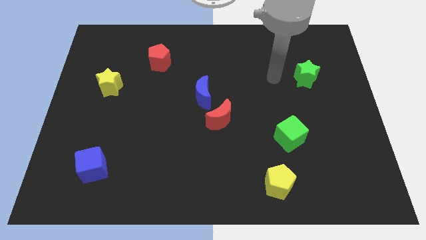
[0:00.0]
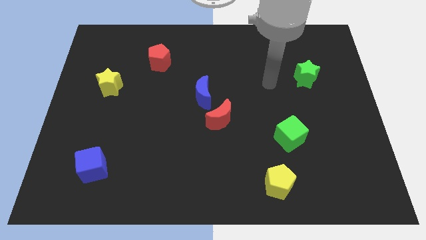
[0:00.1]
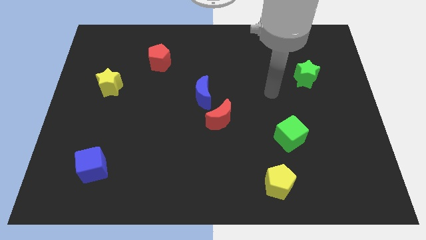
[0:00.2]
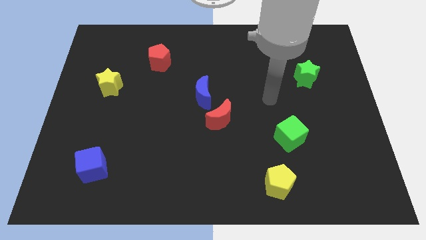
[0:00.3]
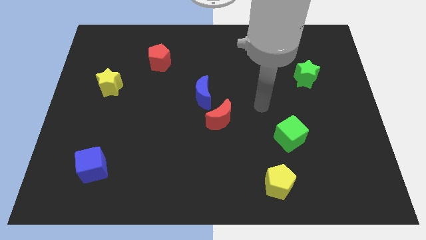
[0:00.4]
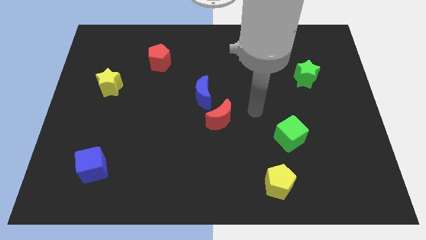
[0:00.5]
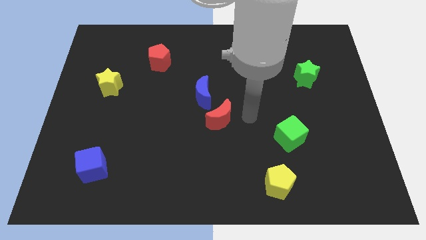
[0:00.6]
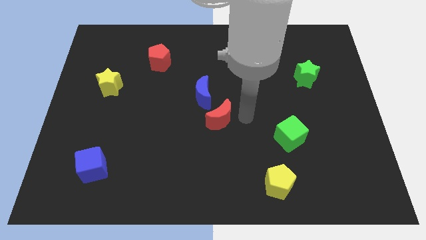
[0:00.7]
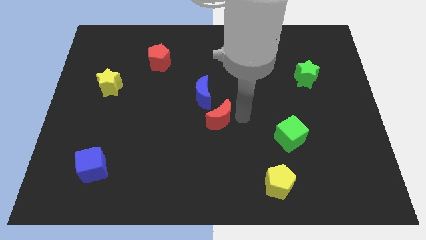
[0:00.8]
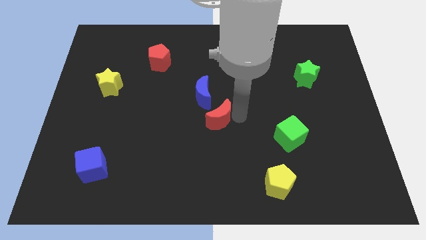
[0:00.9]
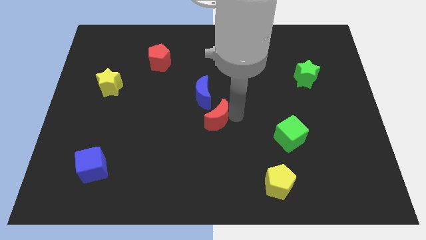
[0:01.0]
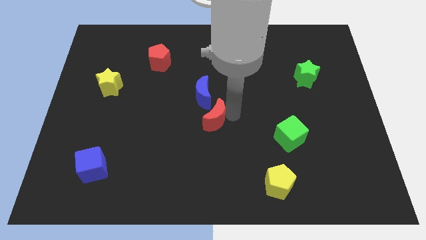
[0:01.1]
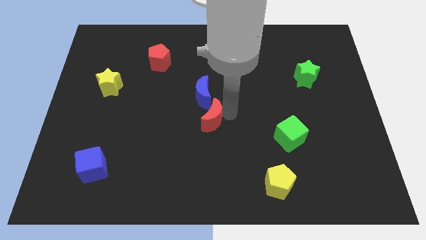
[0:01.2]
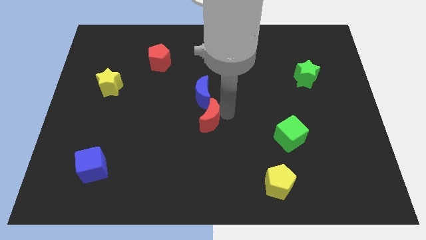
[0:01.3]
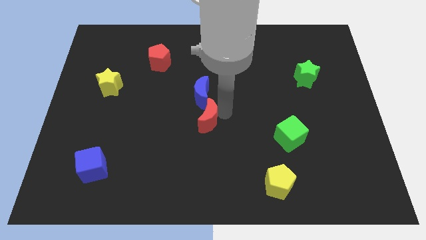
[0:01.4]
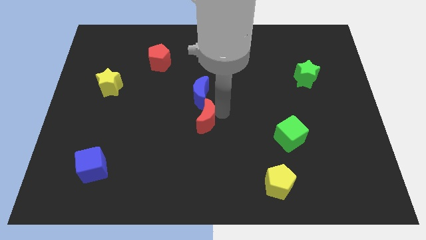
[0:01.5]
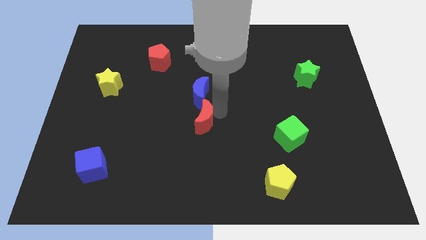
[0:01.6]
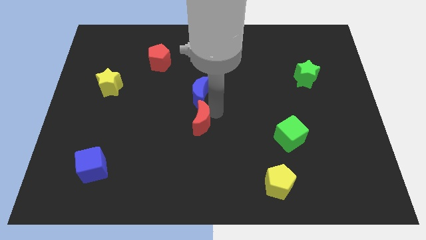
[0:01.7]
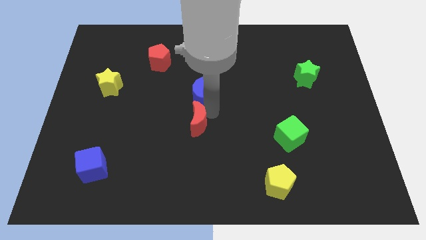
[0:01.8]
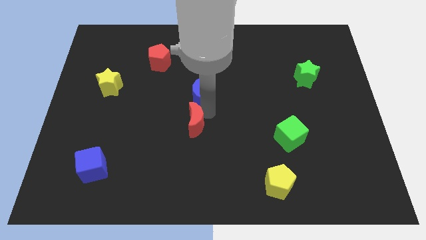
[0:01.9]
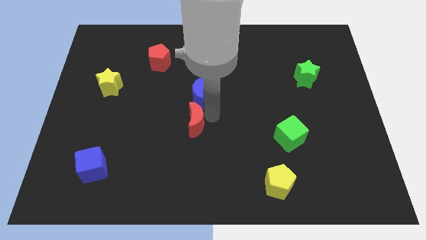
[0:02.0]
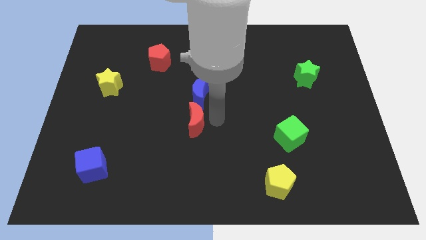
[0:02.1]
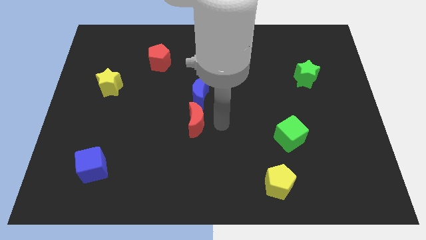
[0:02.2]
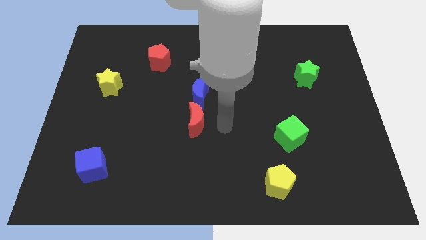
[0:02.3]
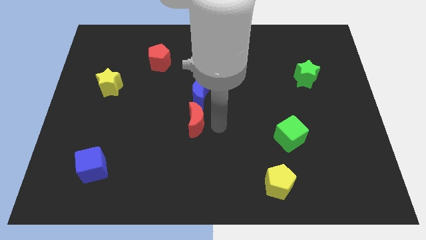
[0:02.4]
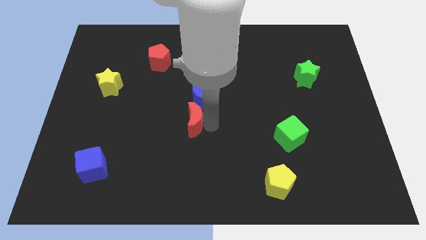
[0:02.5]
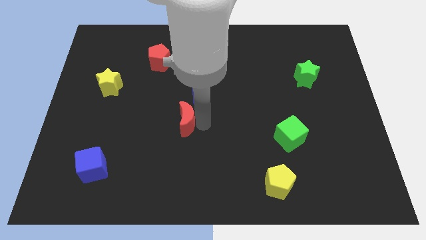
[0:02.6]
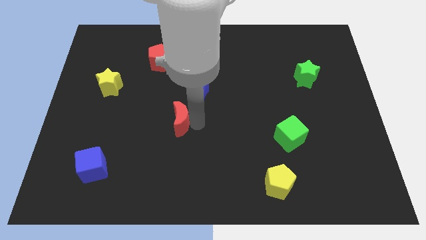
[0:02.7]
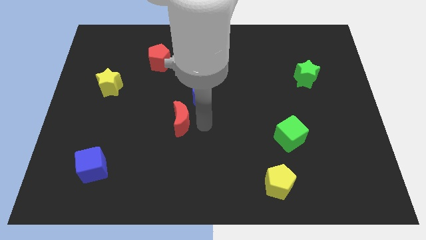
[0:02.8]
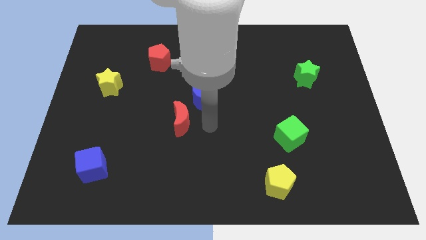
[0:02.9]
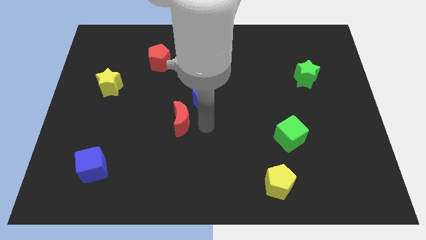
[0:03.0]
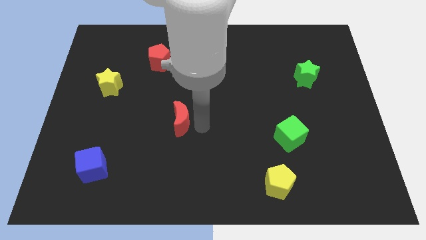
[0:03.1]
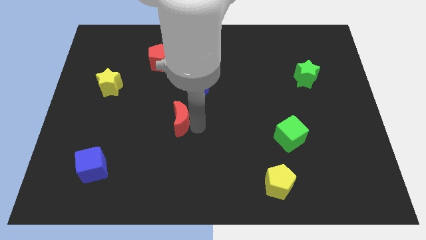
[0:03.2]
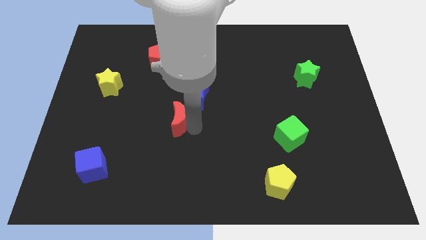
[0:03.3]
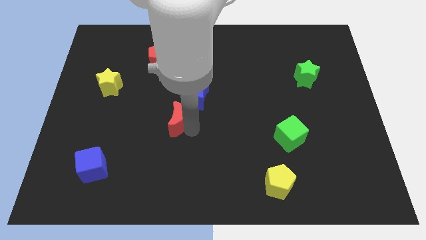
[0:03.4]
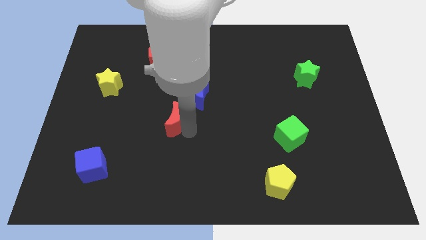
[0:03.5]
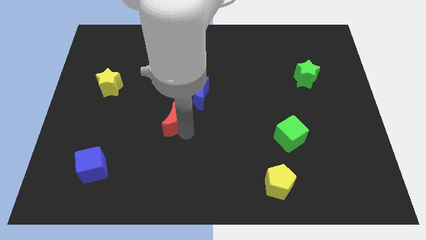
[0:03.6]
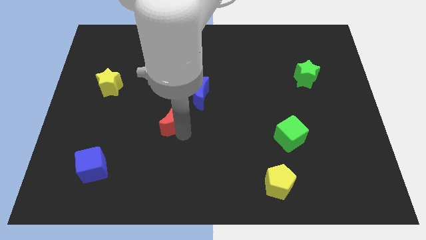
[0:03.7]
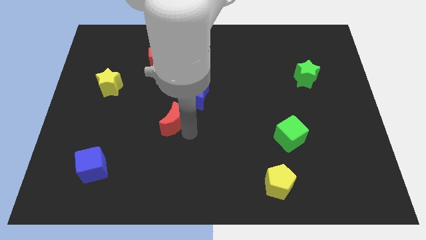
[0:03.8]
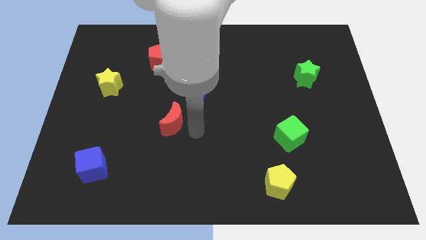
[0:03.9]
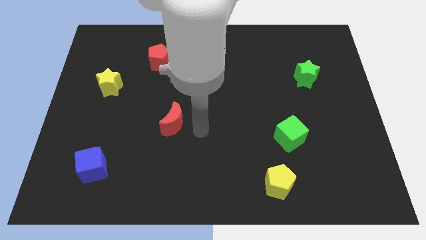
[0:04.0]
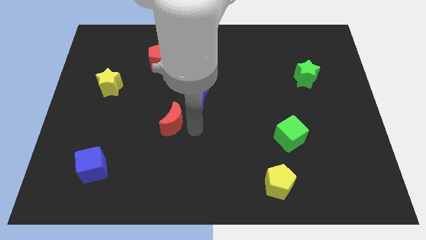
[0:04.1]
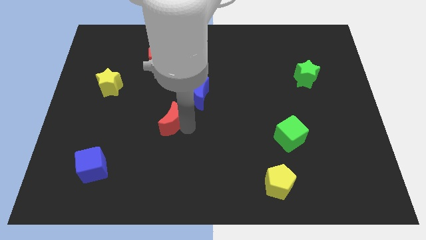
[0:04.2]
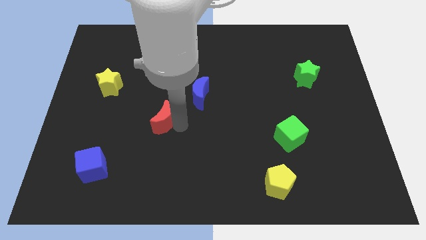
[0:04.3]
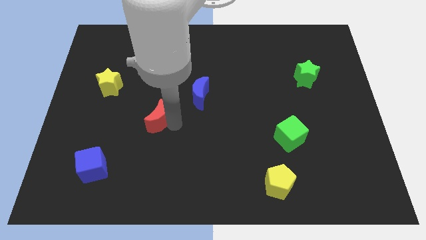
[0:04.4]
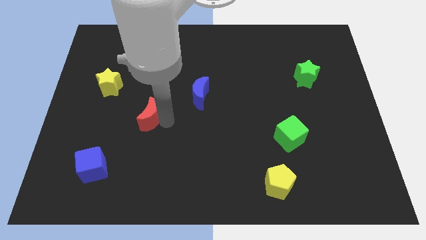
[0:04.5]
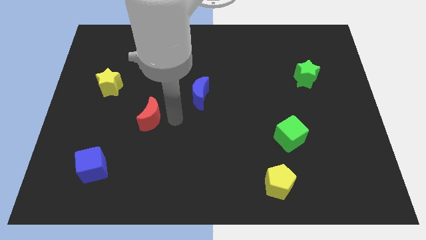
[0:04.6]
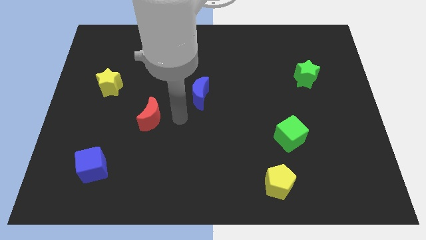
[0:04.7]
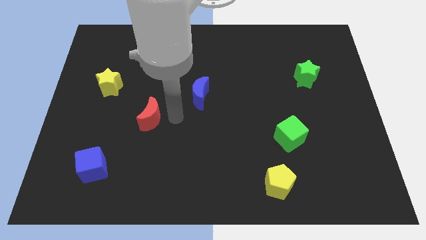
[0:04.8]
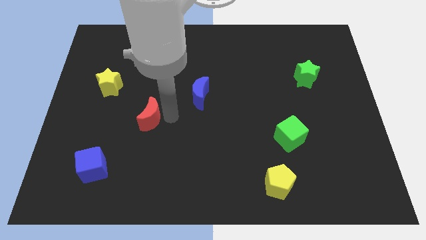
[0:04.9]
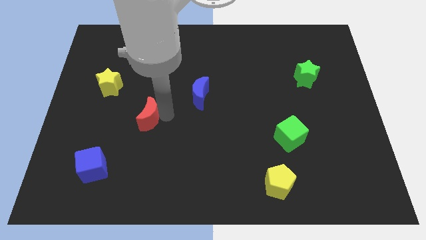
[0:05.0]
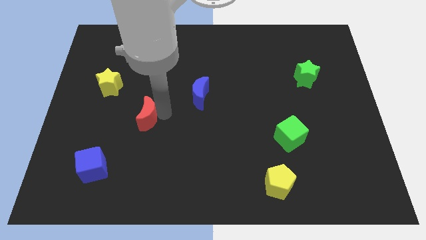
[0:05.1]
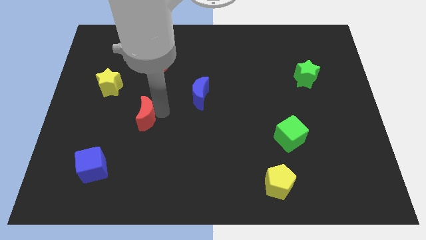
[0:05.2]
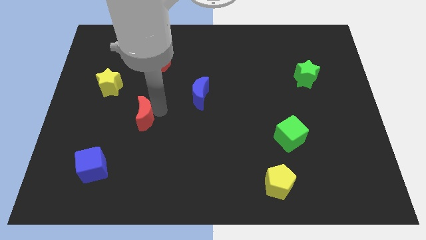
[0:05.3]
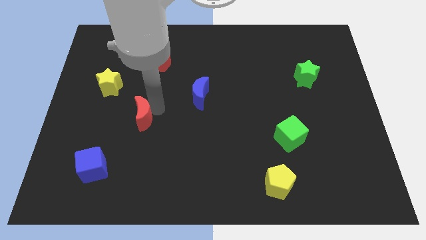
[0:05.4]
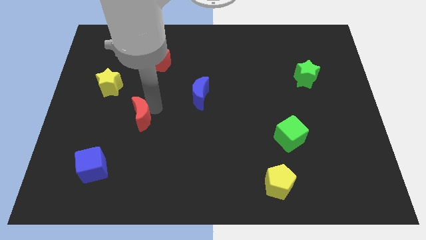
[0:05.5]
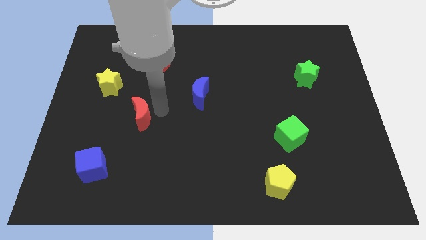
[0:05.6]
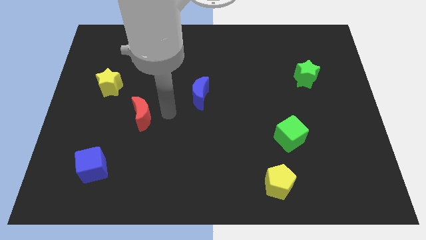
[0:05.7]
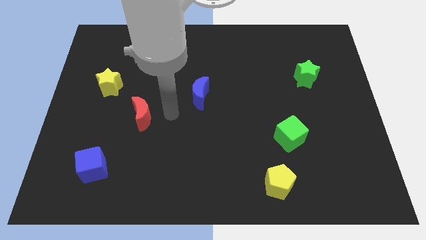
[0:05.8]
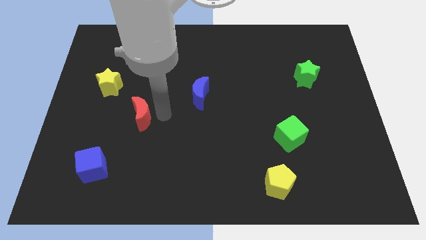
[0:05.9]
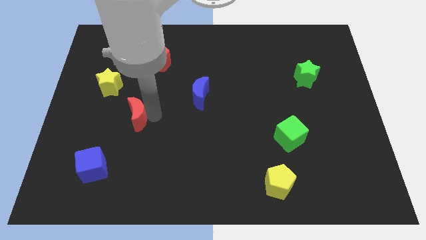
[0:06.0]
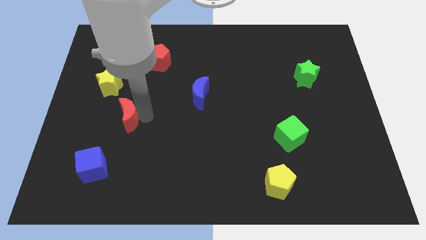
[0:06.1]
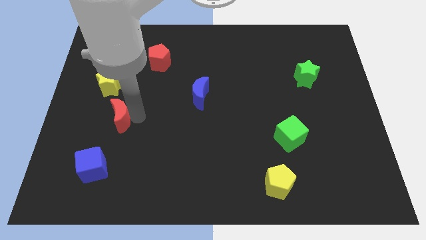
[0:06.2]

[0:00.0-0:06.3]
put the red moon below the yellow star

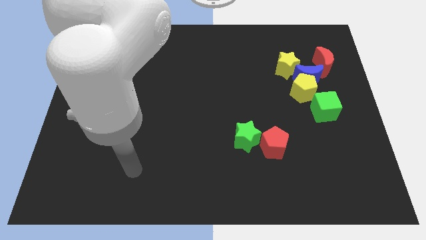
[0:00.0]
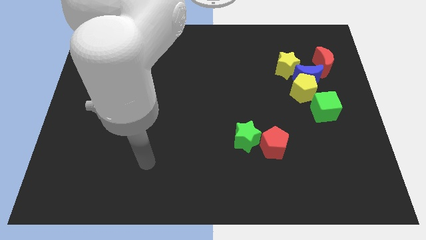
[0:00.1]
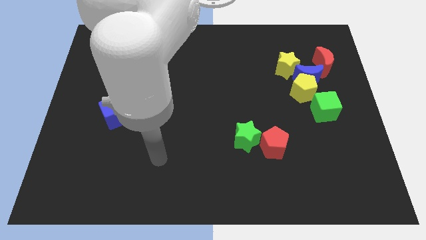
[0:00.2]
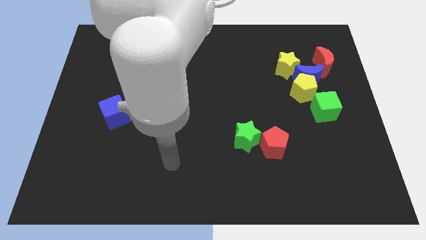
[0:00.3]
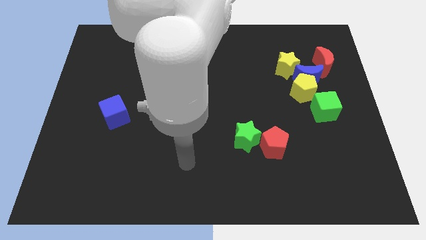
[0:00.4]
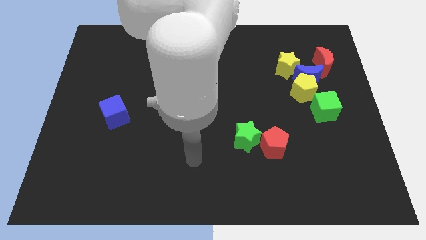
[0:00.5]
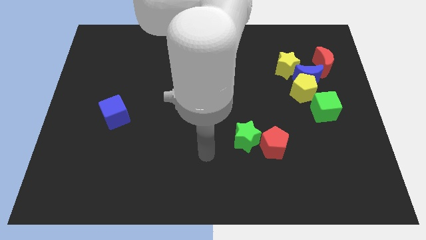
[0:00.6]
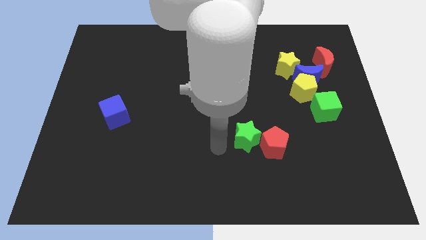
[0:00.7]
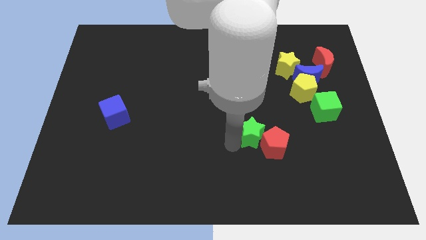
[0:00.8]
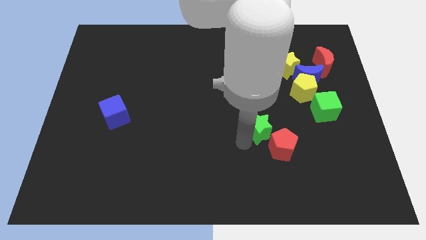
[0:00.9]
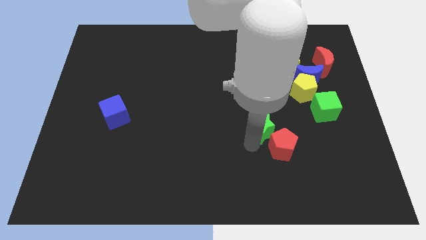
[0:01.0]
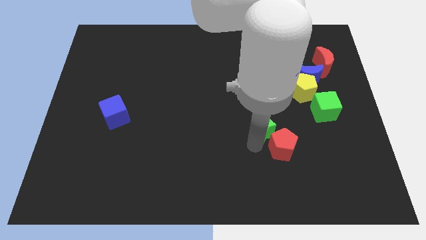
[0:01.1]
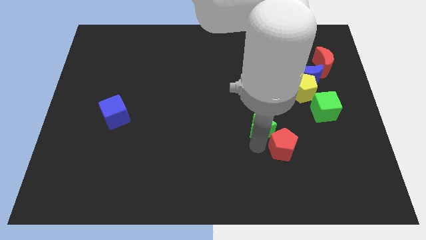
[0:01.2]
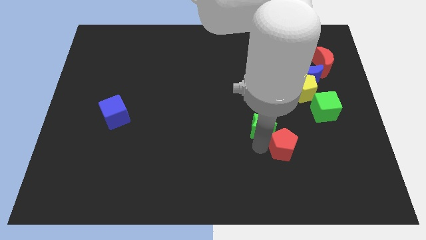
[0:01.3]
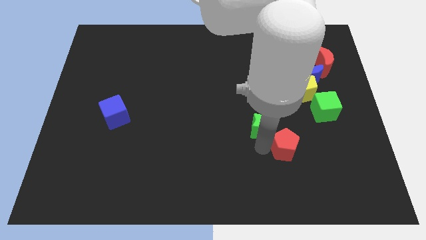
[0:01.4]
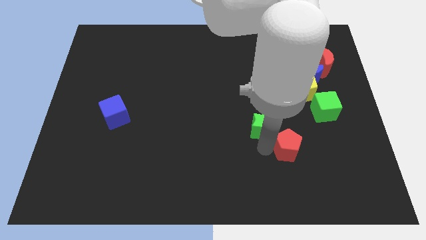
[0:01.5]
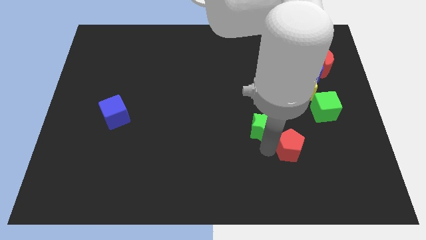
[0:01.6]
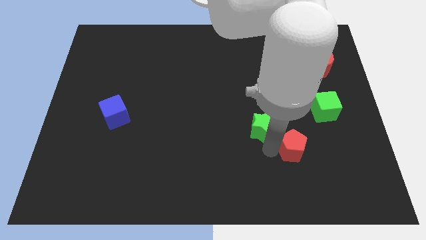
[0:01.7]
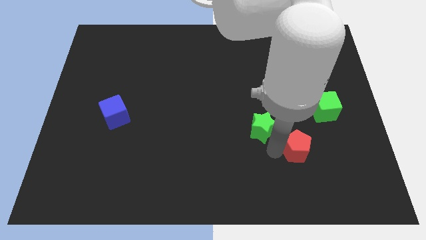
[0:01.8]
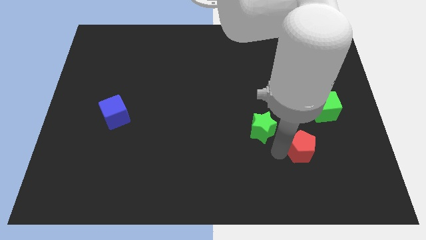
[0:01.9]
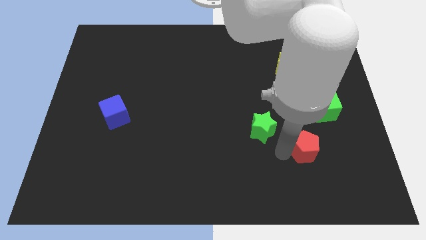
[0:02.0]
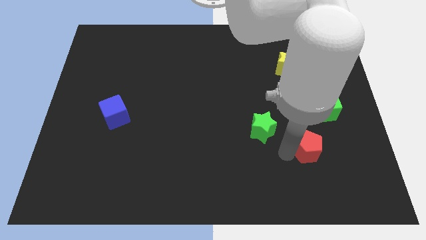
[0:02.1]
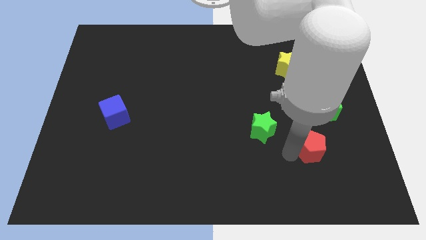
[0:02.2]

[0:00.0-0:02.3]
push the red pentagon to the bottom of the green cube
